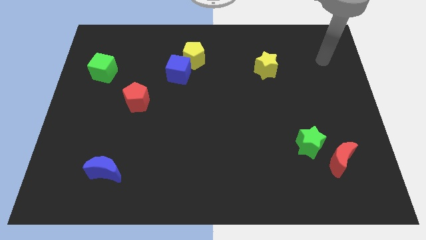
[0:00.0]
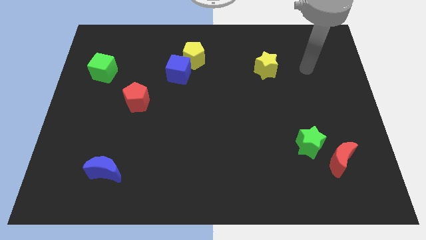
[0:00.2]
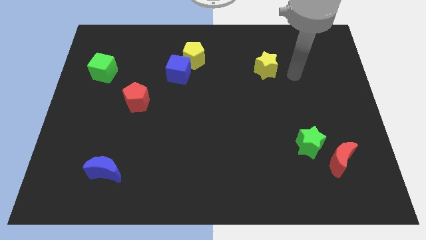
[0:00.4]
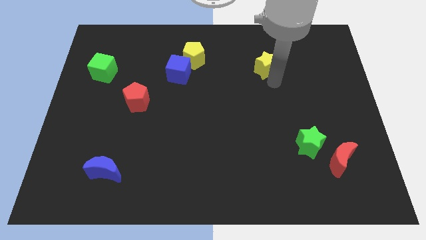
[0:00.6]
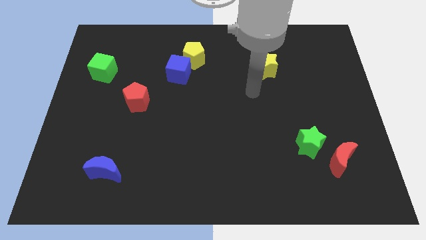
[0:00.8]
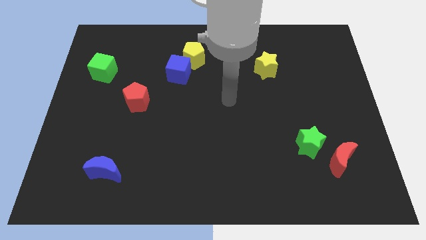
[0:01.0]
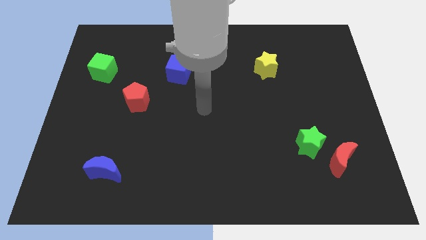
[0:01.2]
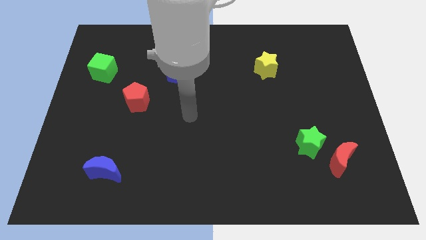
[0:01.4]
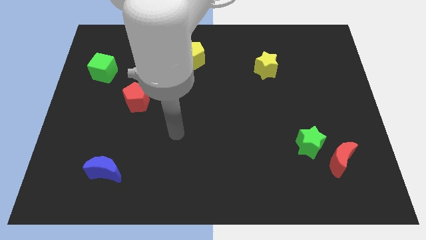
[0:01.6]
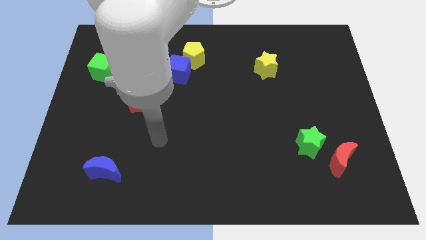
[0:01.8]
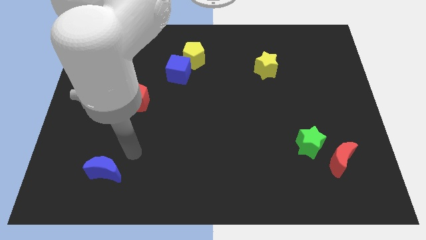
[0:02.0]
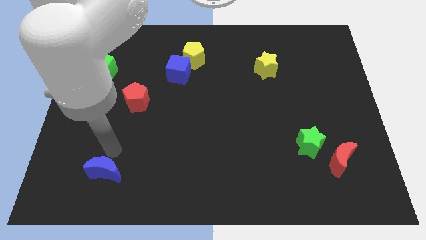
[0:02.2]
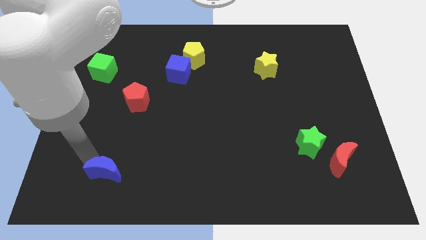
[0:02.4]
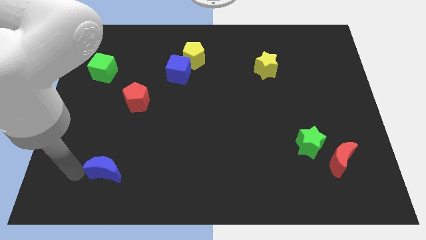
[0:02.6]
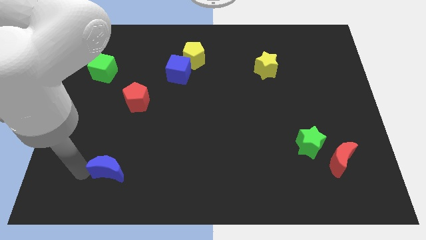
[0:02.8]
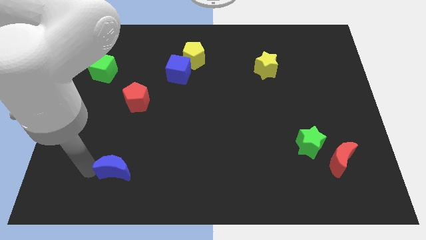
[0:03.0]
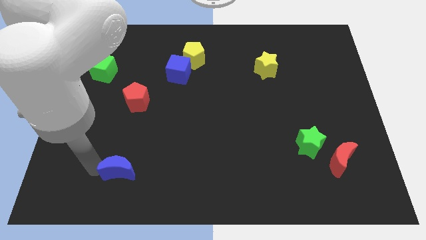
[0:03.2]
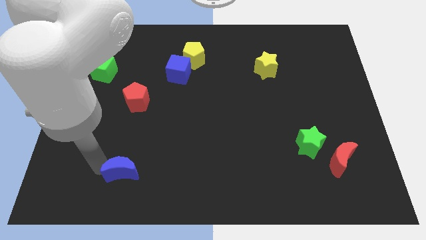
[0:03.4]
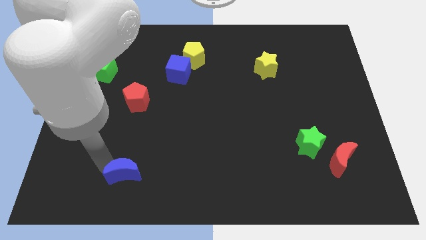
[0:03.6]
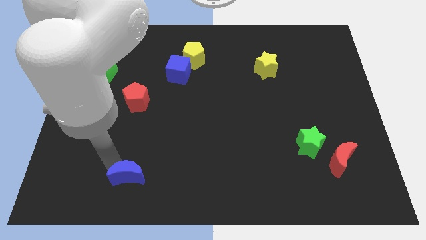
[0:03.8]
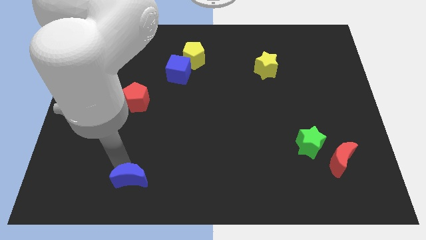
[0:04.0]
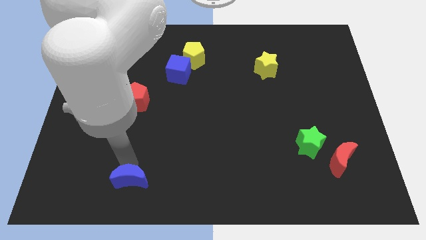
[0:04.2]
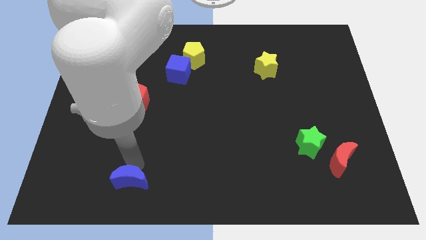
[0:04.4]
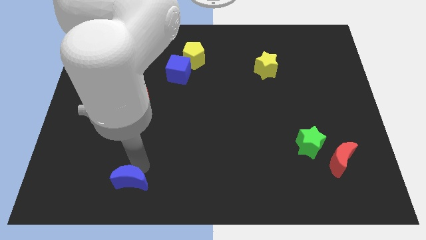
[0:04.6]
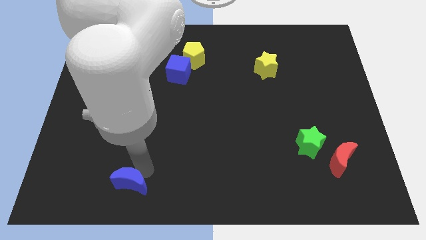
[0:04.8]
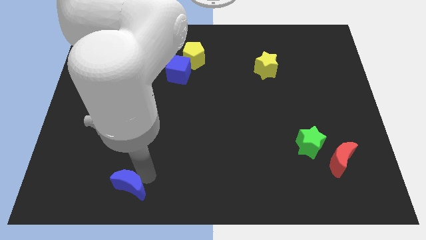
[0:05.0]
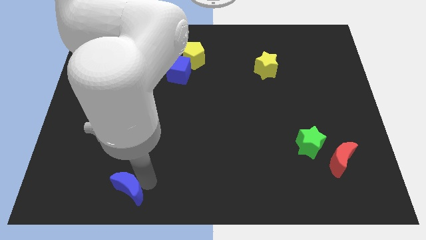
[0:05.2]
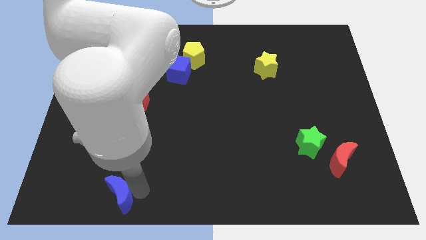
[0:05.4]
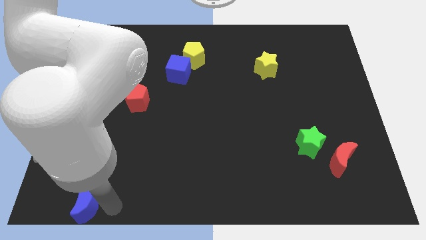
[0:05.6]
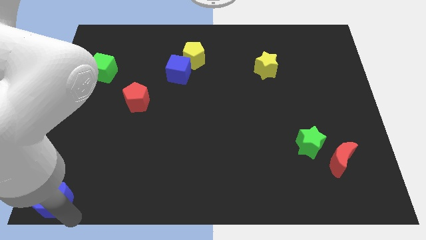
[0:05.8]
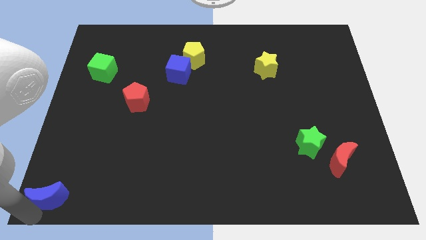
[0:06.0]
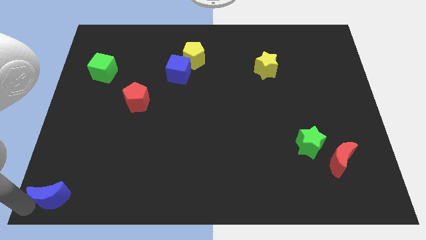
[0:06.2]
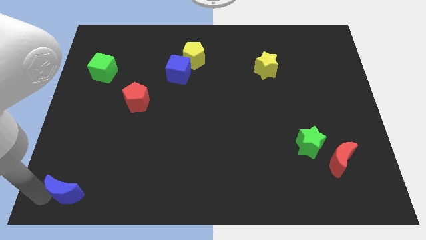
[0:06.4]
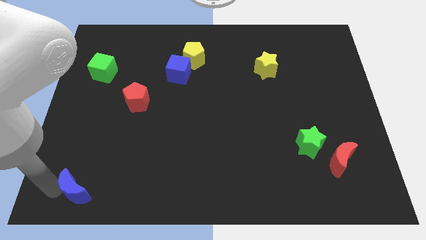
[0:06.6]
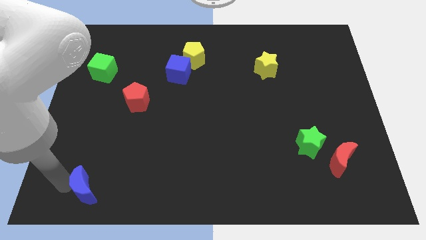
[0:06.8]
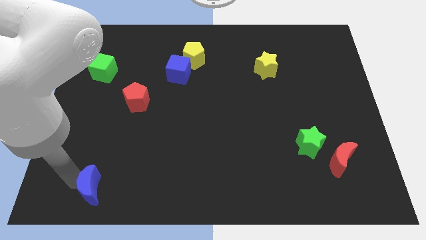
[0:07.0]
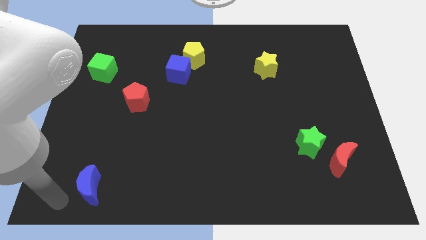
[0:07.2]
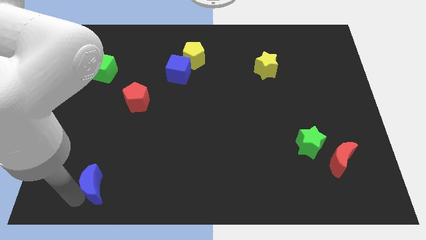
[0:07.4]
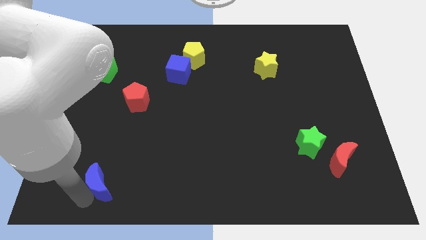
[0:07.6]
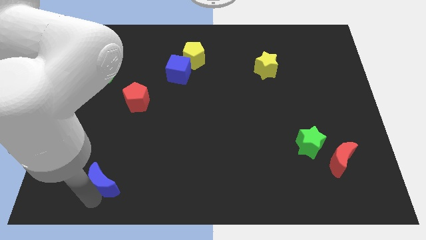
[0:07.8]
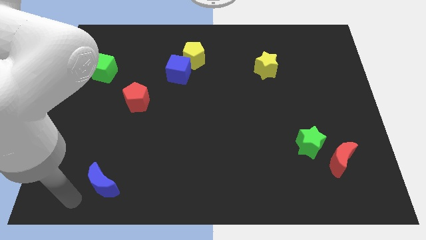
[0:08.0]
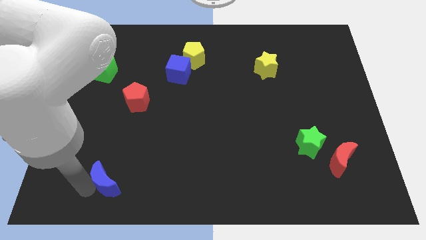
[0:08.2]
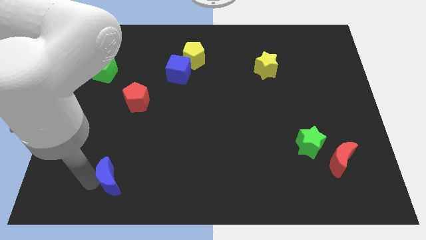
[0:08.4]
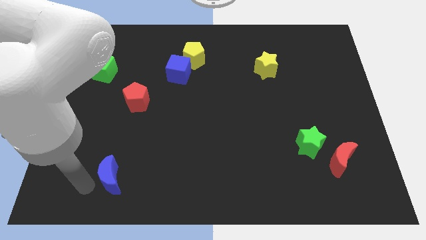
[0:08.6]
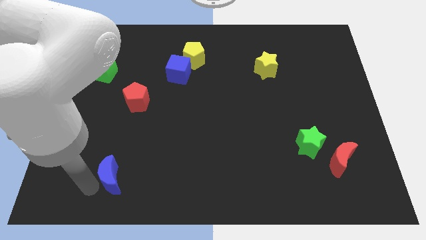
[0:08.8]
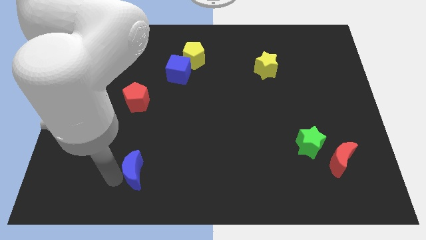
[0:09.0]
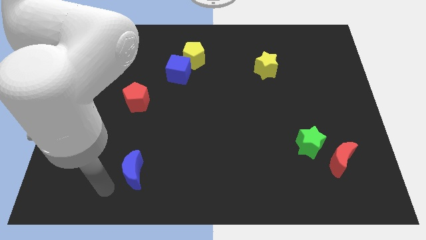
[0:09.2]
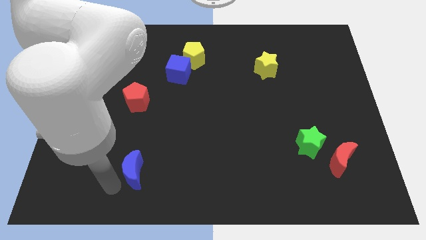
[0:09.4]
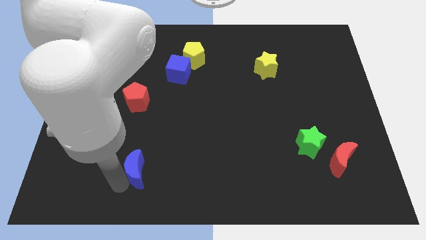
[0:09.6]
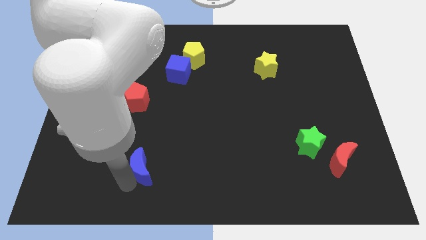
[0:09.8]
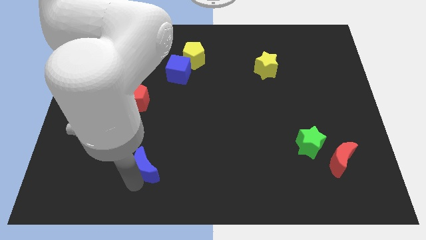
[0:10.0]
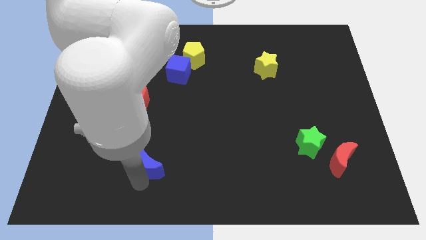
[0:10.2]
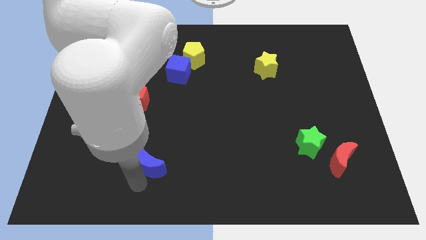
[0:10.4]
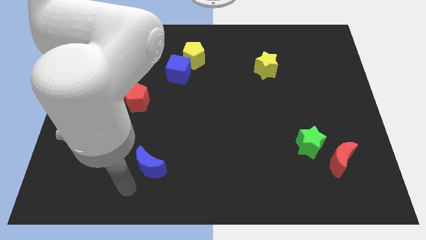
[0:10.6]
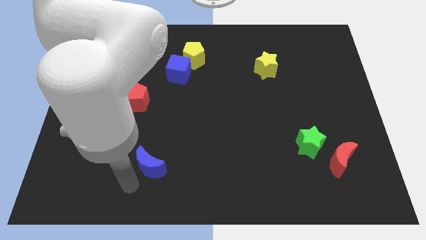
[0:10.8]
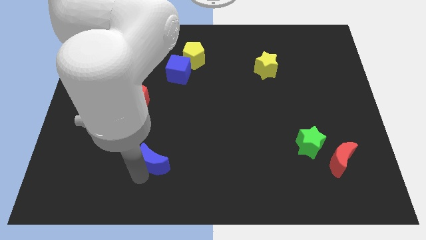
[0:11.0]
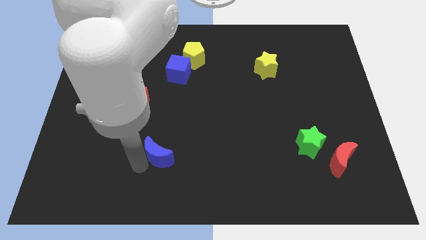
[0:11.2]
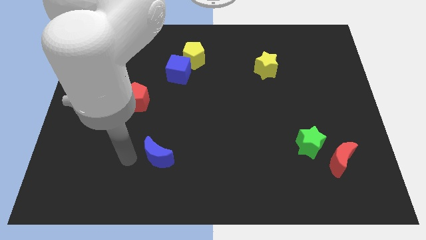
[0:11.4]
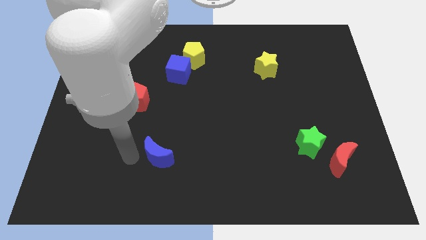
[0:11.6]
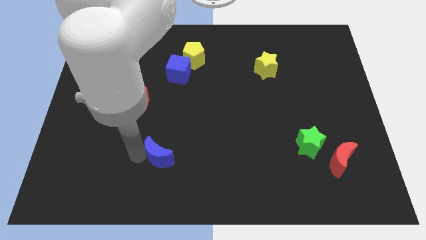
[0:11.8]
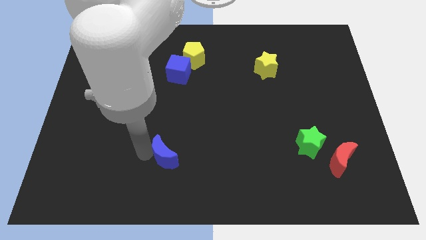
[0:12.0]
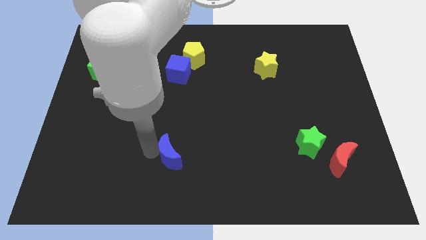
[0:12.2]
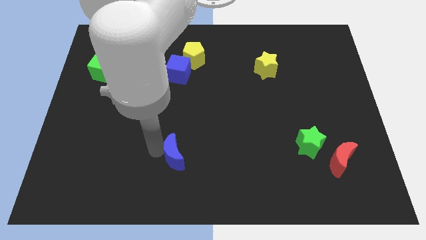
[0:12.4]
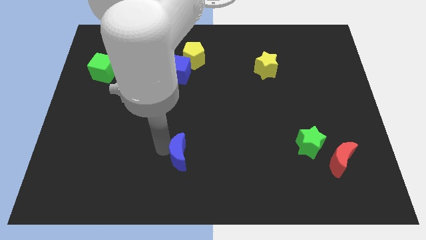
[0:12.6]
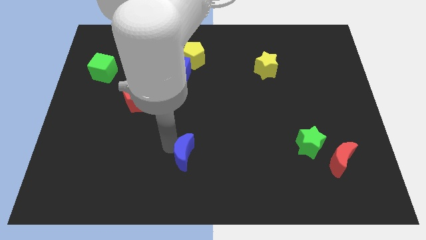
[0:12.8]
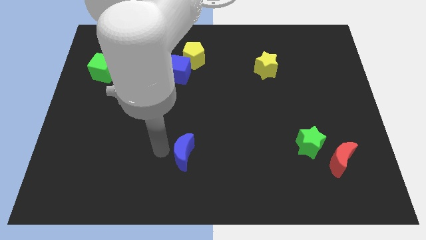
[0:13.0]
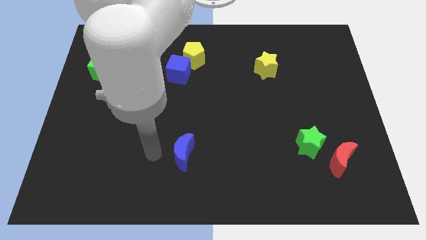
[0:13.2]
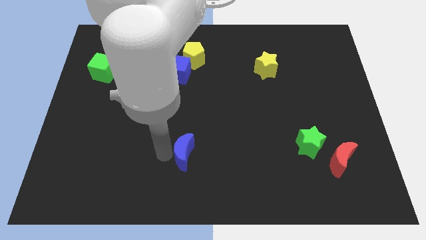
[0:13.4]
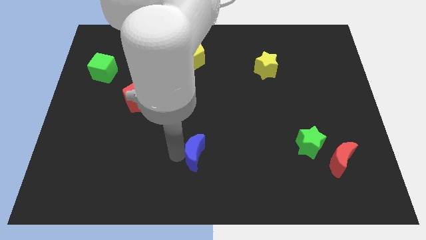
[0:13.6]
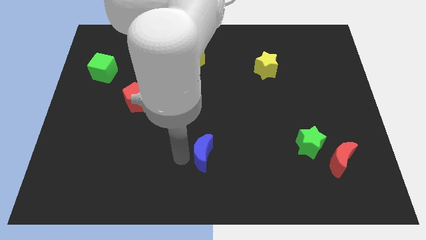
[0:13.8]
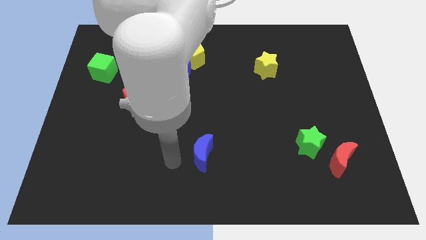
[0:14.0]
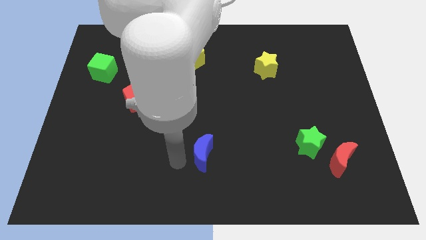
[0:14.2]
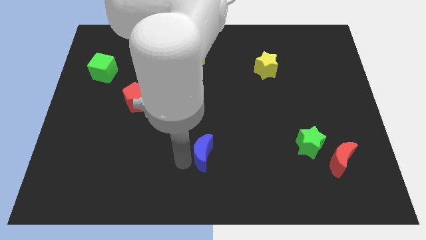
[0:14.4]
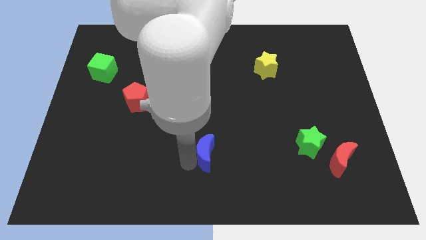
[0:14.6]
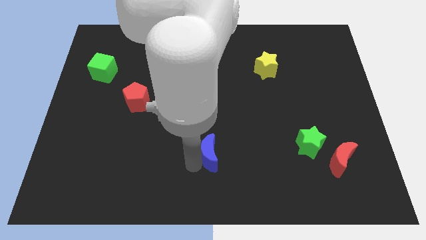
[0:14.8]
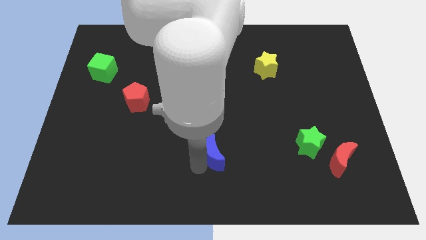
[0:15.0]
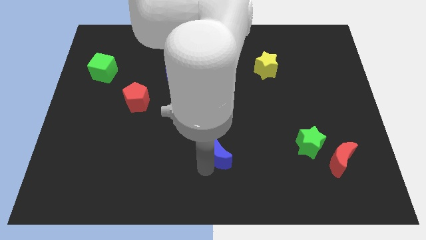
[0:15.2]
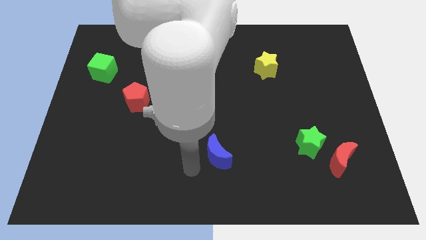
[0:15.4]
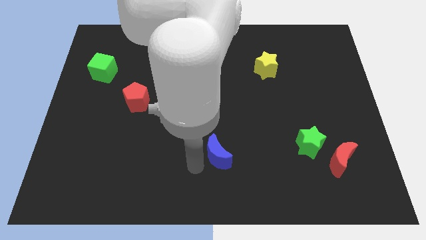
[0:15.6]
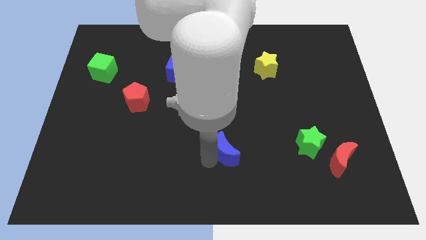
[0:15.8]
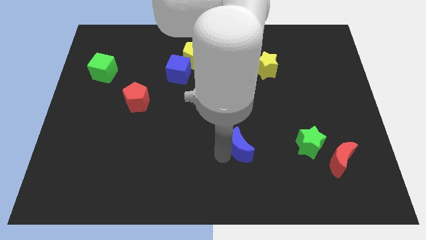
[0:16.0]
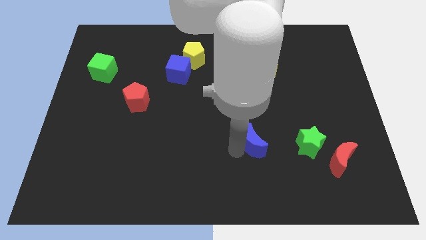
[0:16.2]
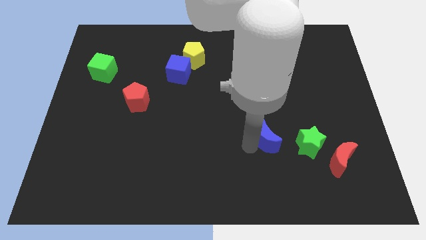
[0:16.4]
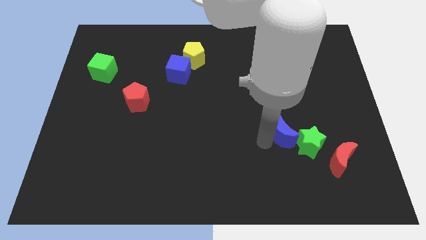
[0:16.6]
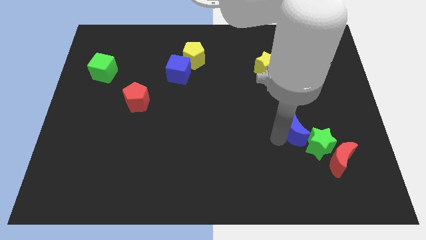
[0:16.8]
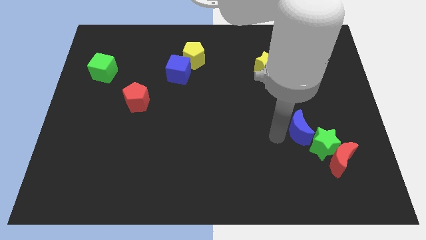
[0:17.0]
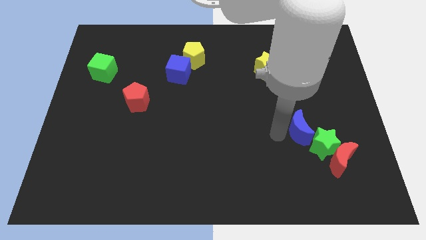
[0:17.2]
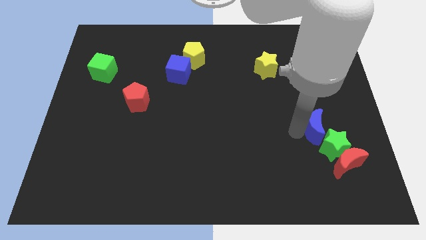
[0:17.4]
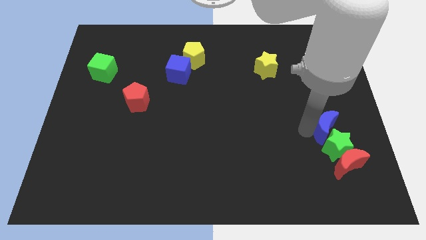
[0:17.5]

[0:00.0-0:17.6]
put the blue moon to the top right side of the green star
